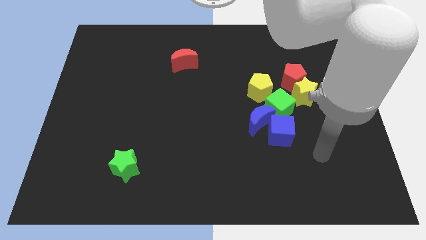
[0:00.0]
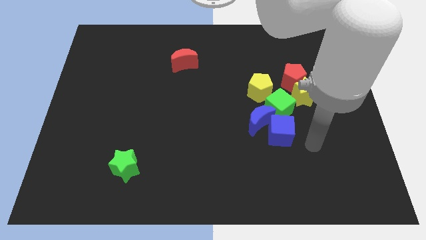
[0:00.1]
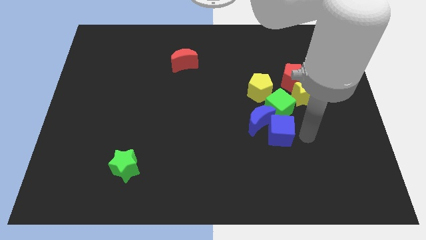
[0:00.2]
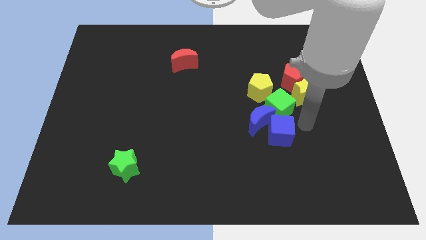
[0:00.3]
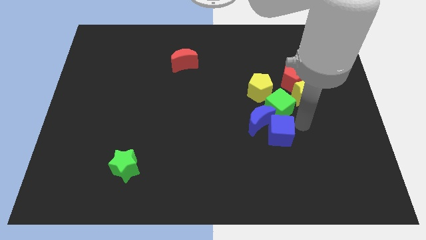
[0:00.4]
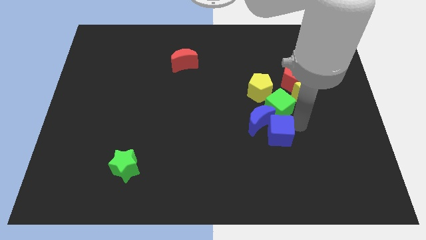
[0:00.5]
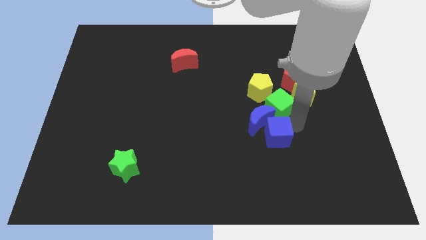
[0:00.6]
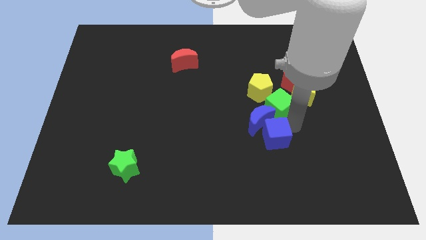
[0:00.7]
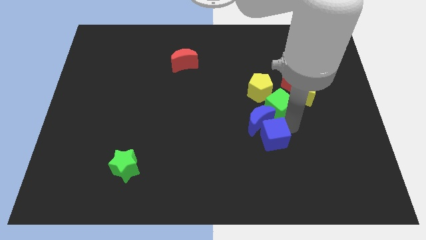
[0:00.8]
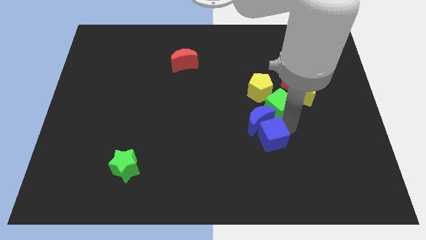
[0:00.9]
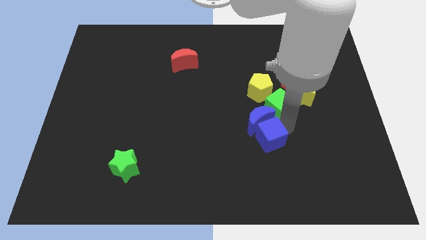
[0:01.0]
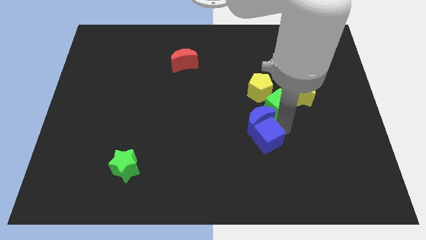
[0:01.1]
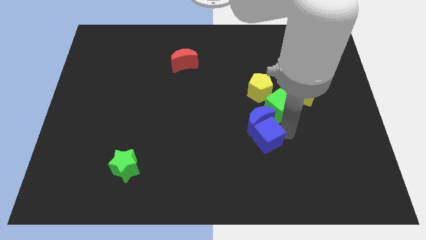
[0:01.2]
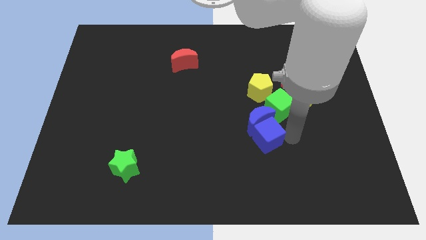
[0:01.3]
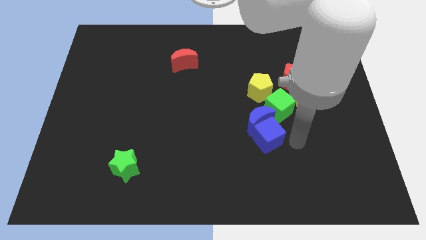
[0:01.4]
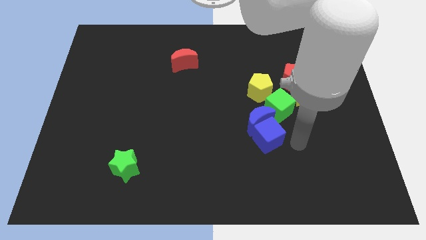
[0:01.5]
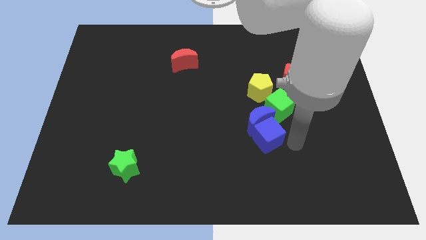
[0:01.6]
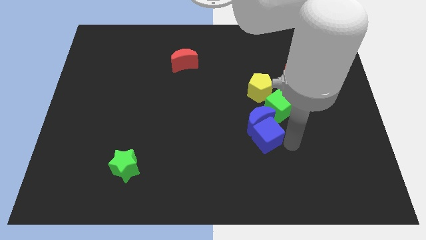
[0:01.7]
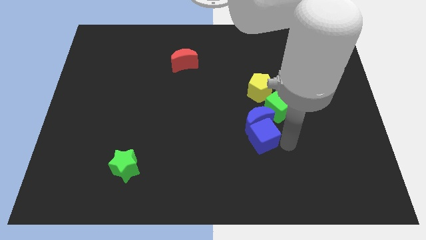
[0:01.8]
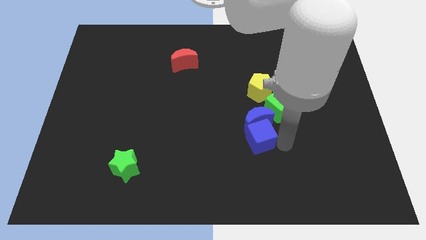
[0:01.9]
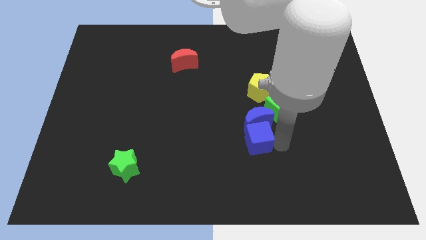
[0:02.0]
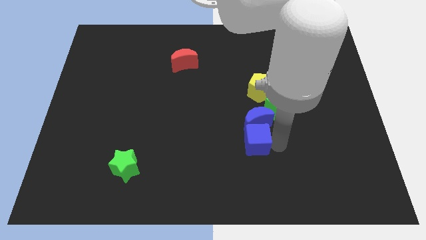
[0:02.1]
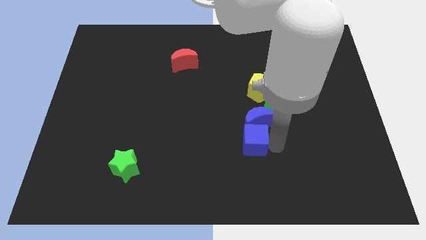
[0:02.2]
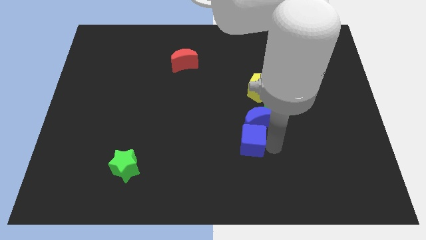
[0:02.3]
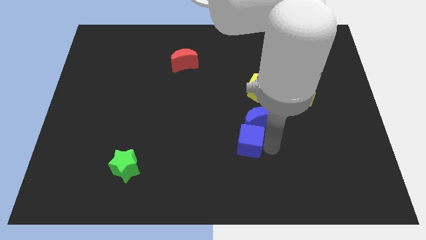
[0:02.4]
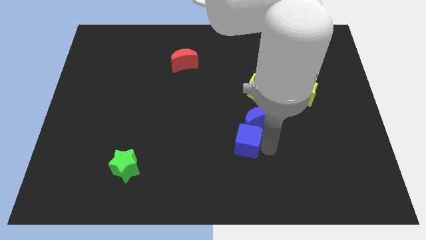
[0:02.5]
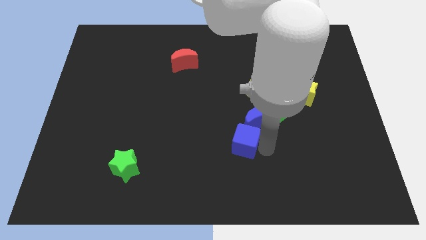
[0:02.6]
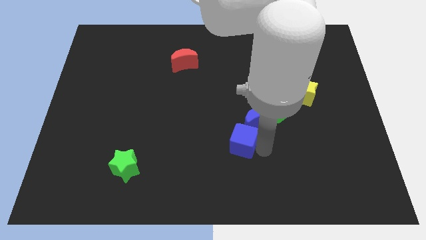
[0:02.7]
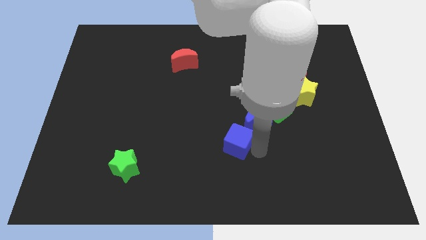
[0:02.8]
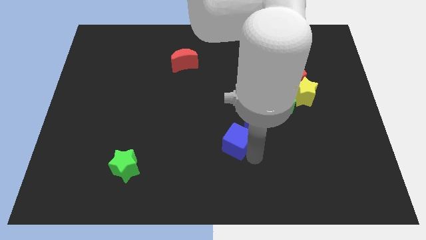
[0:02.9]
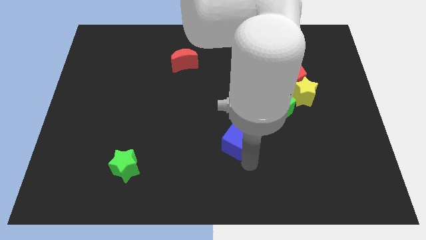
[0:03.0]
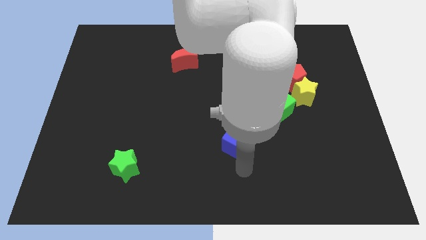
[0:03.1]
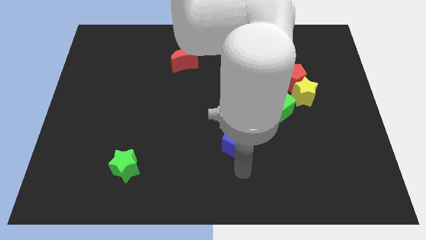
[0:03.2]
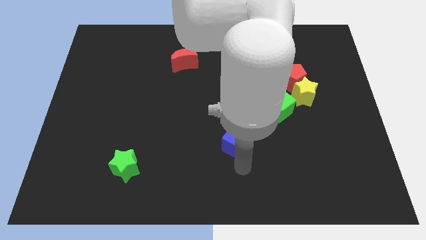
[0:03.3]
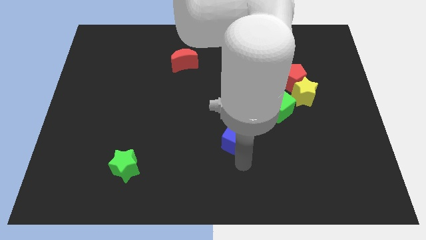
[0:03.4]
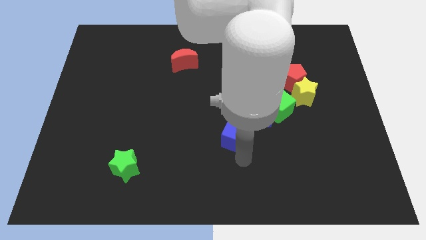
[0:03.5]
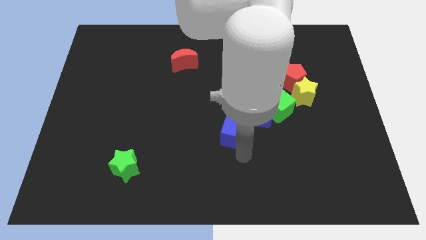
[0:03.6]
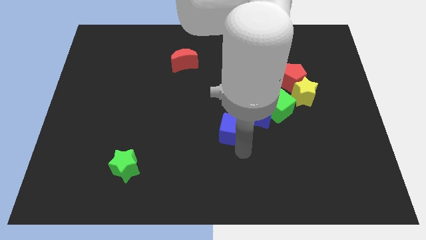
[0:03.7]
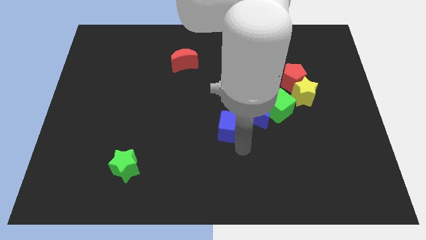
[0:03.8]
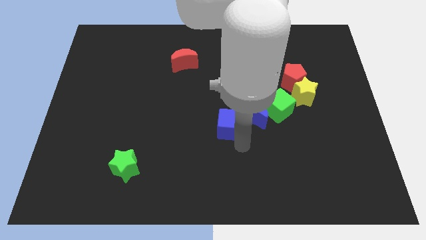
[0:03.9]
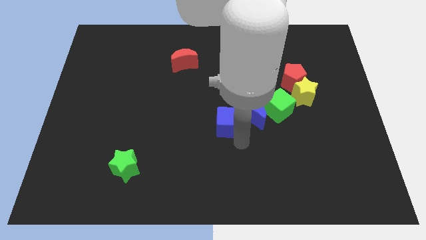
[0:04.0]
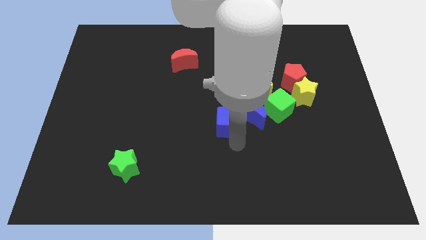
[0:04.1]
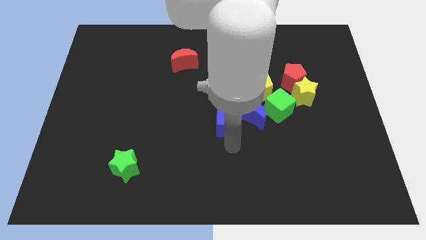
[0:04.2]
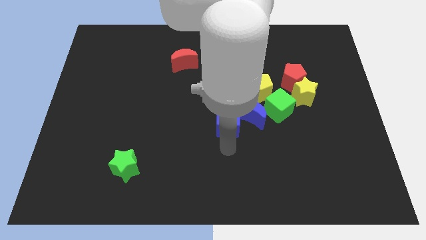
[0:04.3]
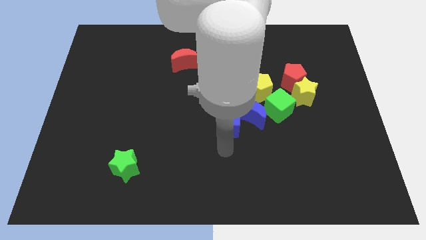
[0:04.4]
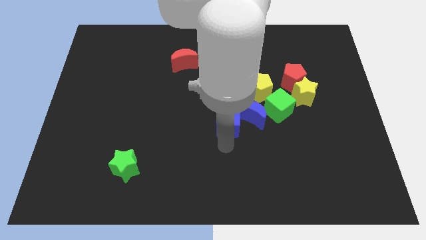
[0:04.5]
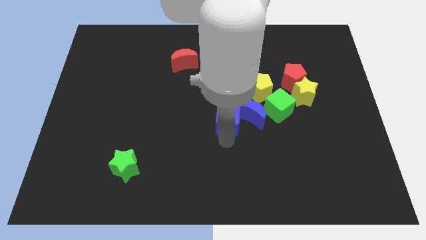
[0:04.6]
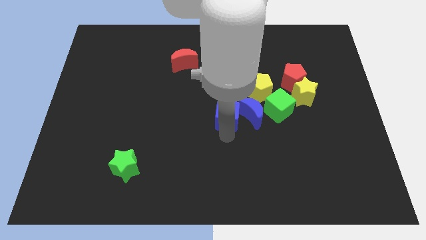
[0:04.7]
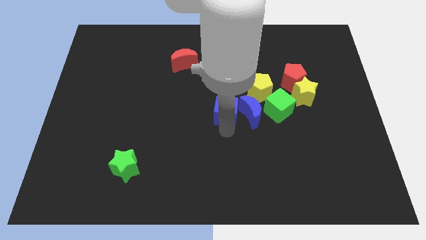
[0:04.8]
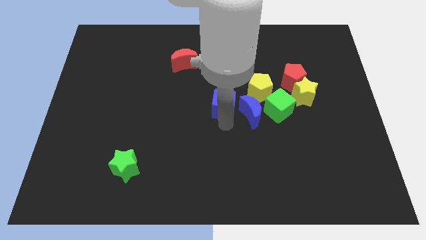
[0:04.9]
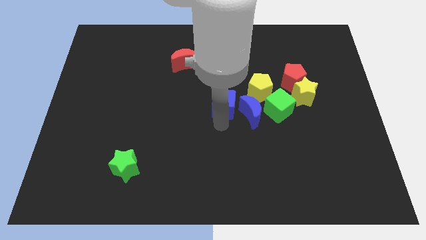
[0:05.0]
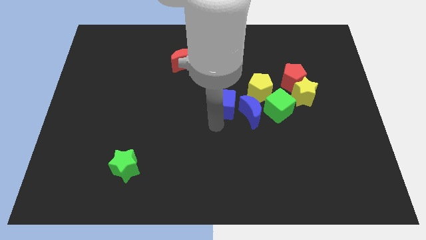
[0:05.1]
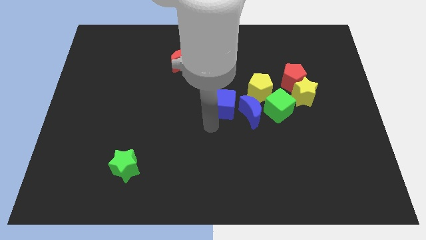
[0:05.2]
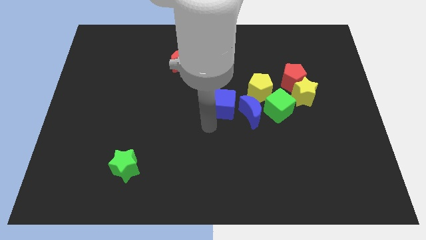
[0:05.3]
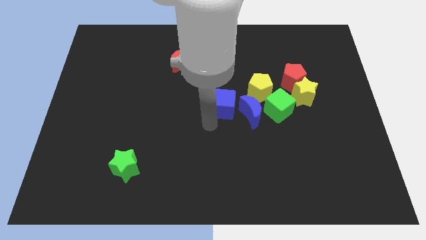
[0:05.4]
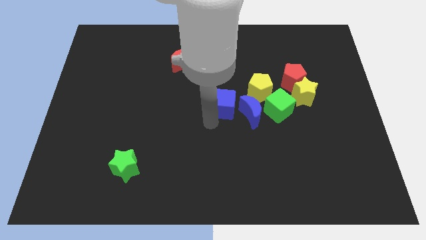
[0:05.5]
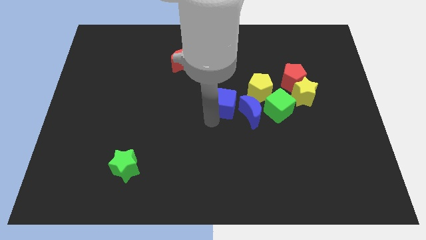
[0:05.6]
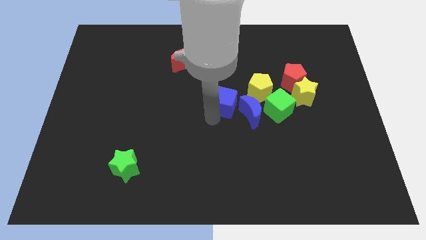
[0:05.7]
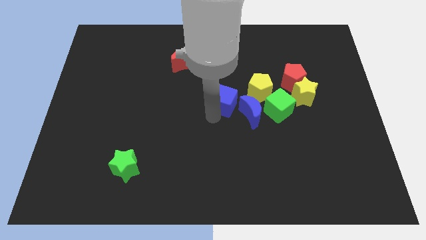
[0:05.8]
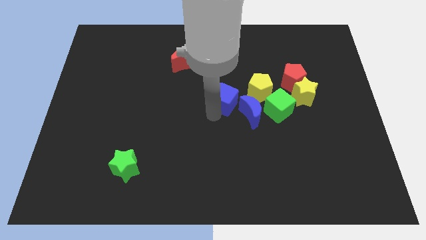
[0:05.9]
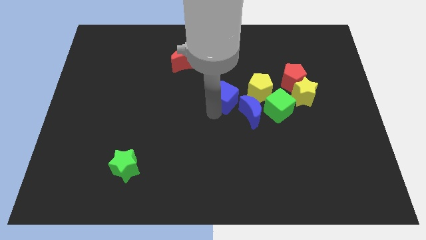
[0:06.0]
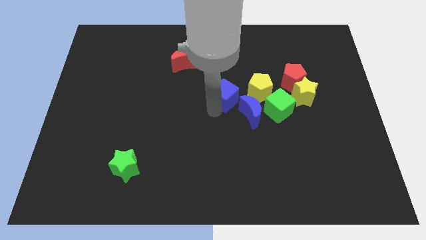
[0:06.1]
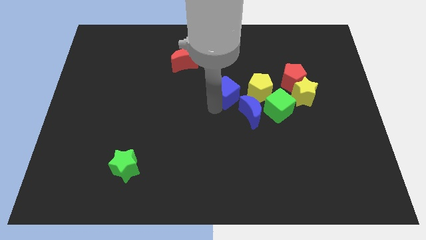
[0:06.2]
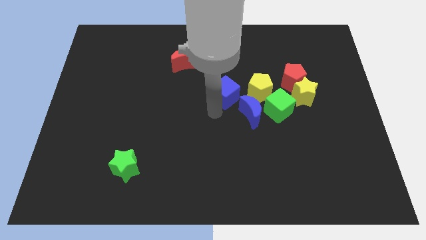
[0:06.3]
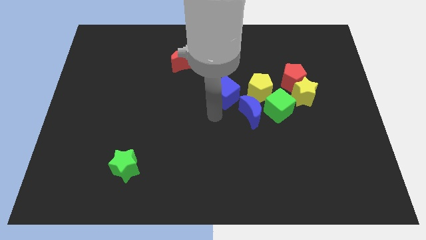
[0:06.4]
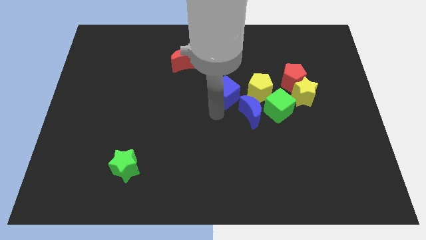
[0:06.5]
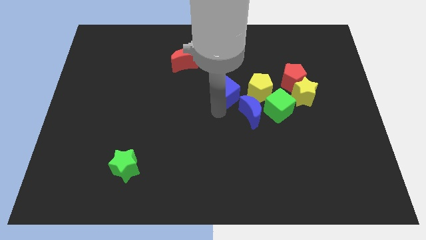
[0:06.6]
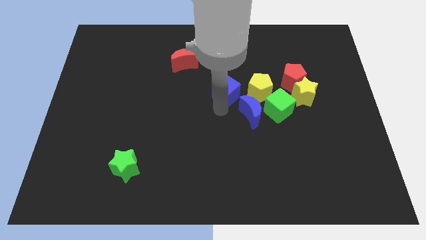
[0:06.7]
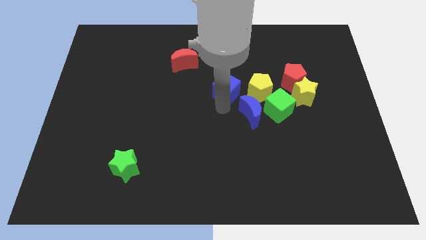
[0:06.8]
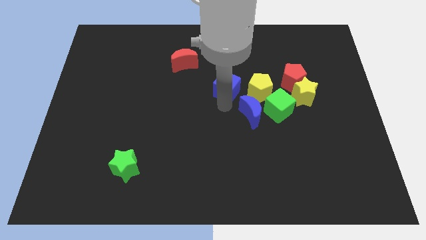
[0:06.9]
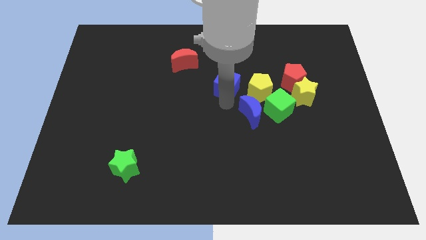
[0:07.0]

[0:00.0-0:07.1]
slide the blue cube diagonally up and to the left of the yellow pentagon

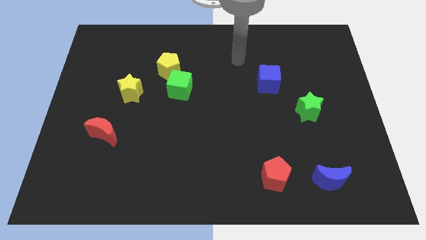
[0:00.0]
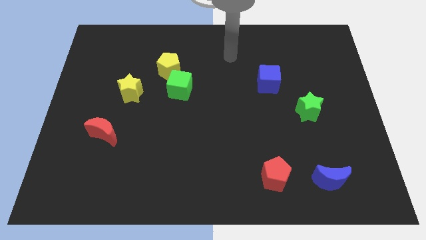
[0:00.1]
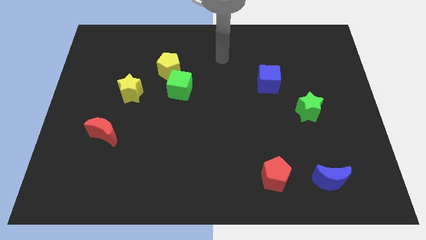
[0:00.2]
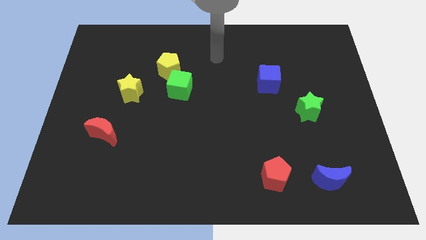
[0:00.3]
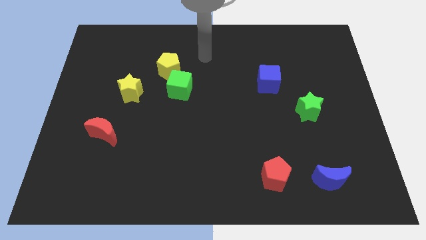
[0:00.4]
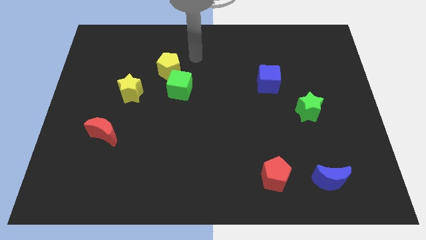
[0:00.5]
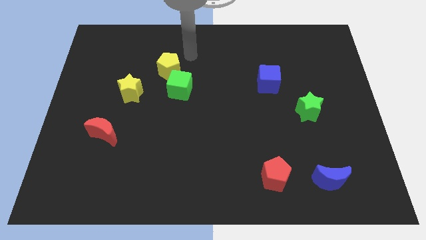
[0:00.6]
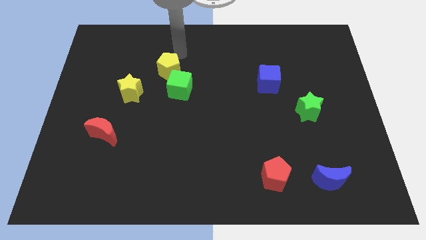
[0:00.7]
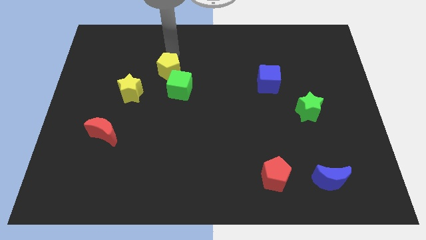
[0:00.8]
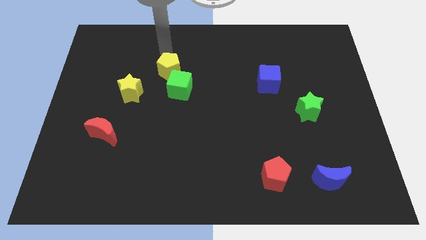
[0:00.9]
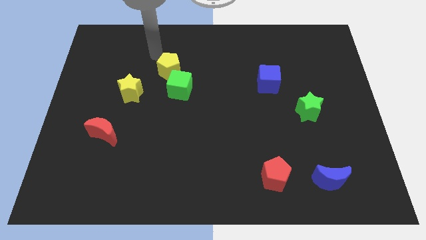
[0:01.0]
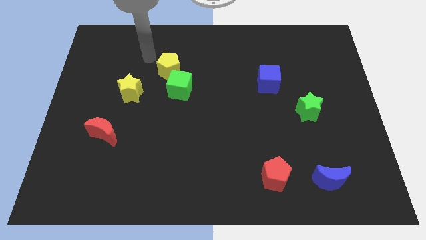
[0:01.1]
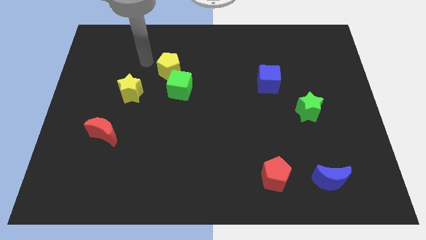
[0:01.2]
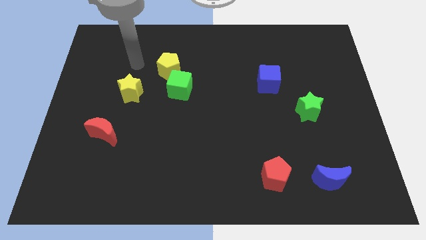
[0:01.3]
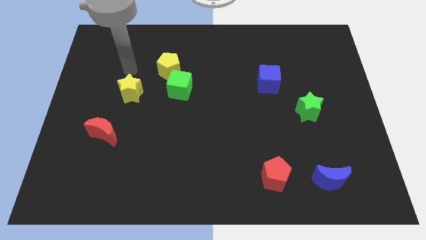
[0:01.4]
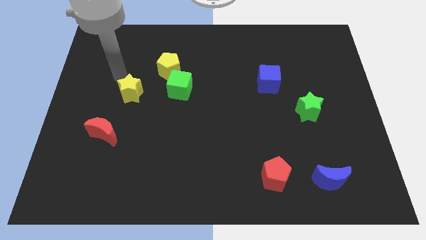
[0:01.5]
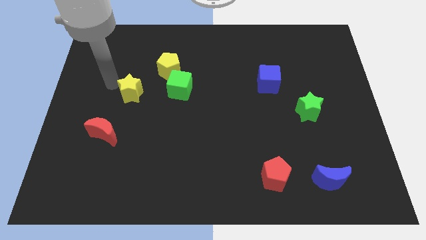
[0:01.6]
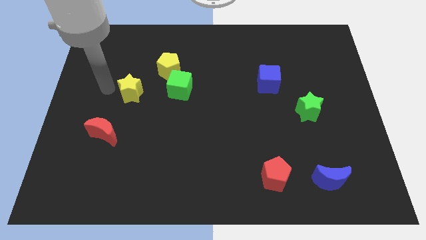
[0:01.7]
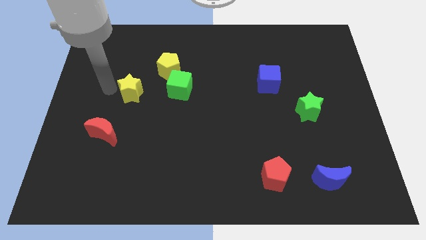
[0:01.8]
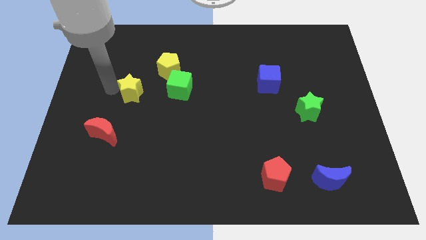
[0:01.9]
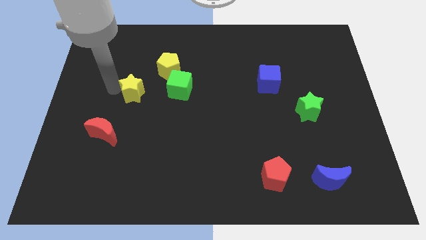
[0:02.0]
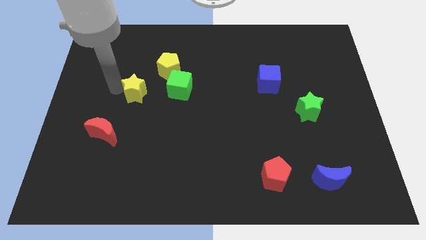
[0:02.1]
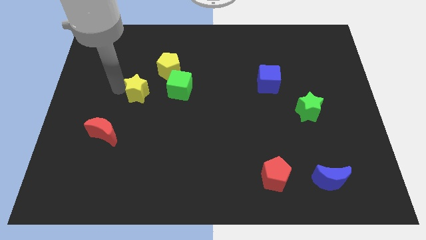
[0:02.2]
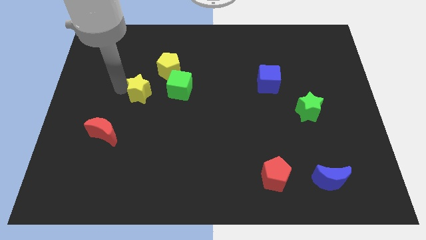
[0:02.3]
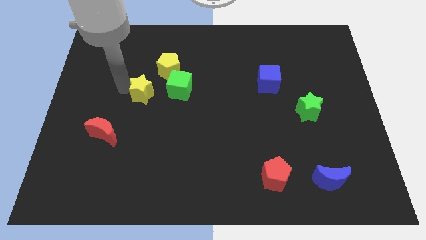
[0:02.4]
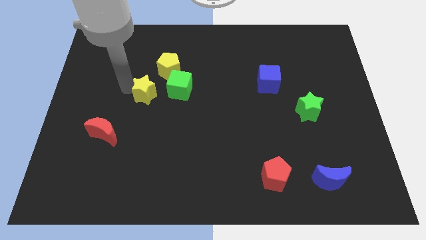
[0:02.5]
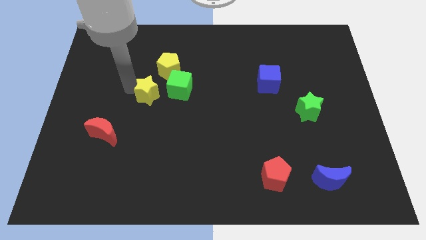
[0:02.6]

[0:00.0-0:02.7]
slide the yellow star to the bottom side of the yellow pentagon
